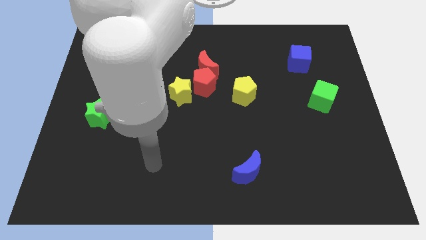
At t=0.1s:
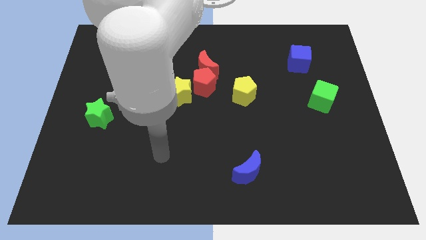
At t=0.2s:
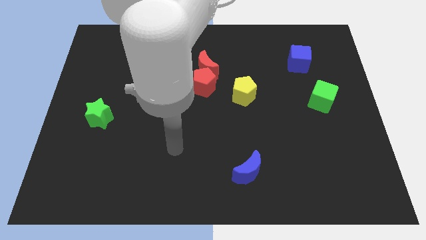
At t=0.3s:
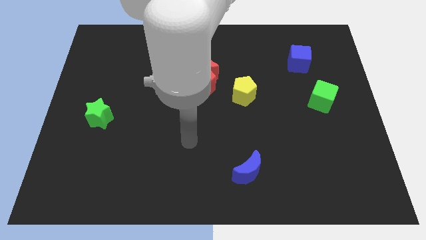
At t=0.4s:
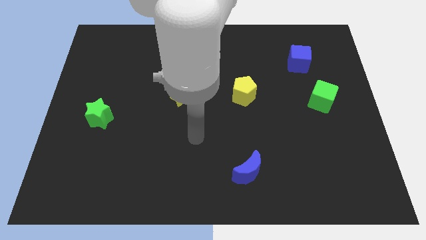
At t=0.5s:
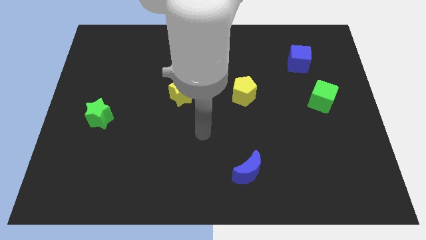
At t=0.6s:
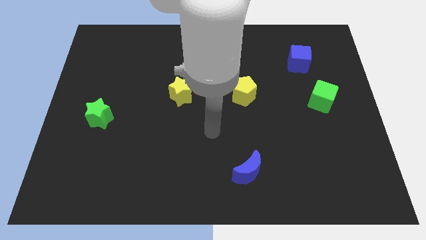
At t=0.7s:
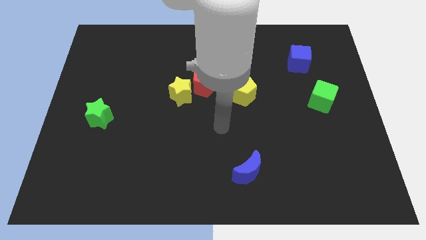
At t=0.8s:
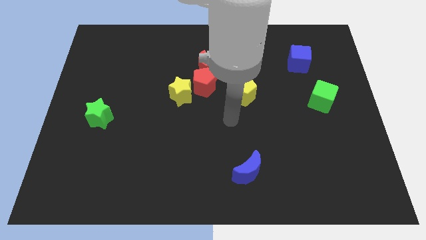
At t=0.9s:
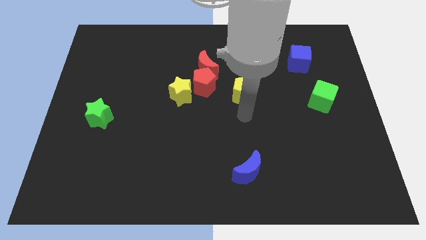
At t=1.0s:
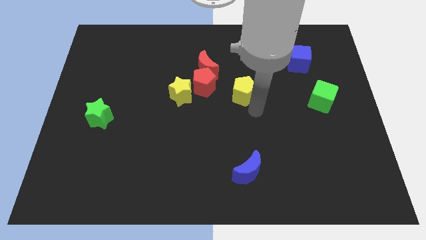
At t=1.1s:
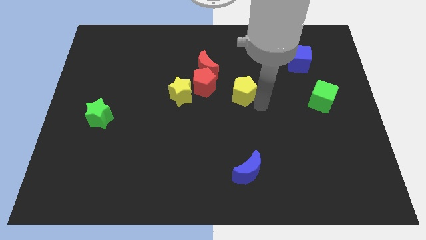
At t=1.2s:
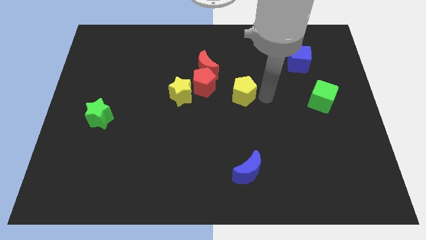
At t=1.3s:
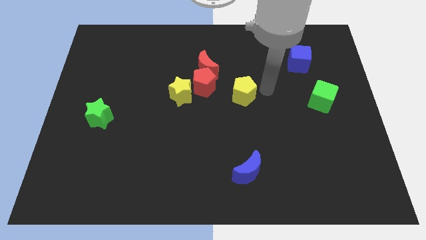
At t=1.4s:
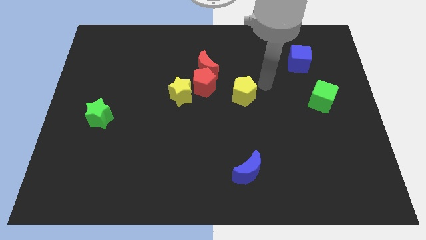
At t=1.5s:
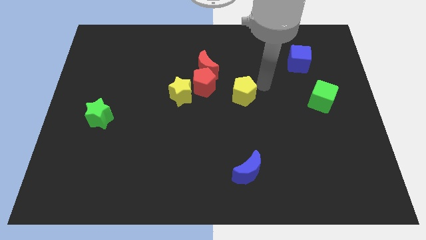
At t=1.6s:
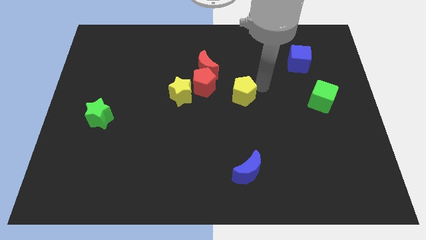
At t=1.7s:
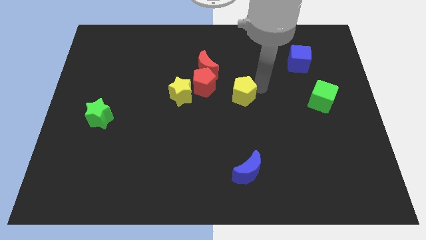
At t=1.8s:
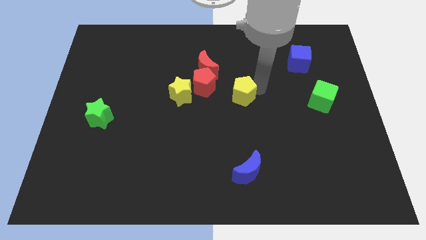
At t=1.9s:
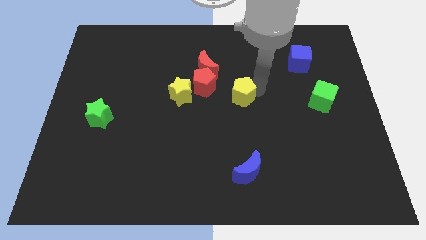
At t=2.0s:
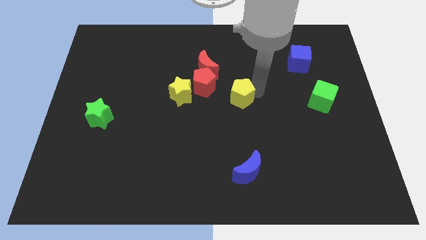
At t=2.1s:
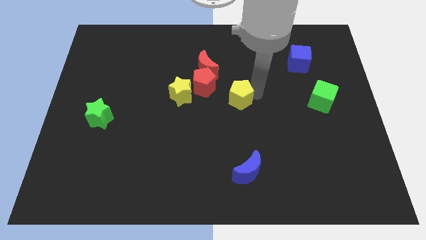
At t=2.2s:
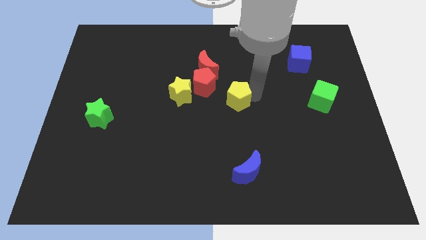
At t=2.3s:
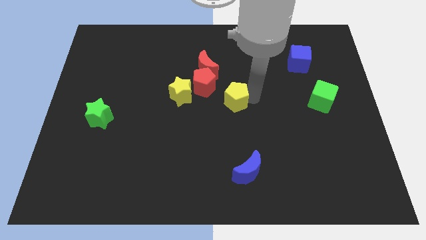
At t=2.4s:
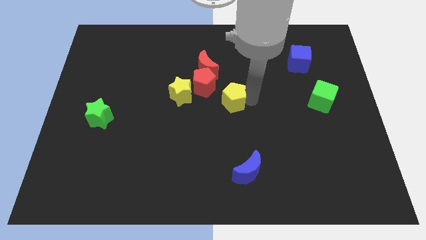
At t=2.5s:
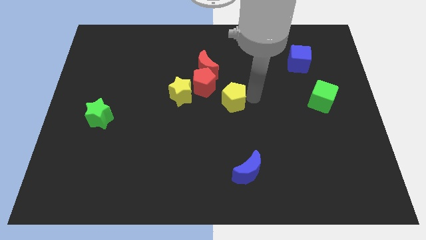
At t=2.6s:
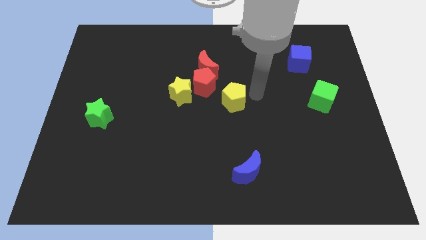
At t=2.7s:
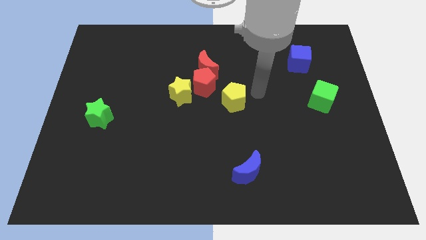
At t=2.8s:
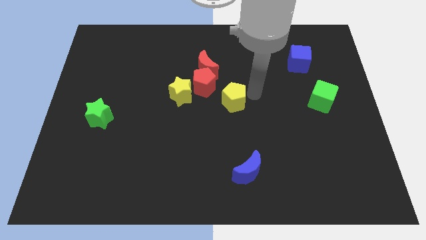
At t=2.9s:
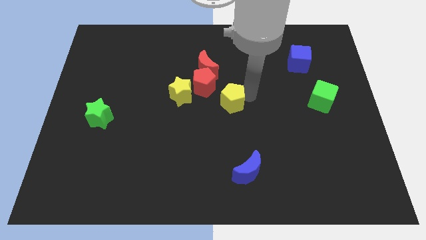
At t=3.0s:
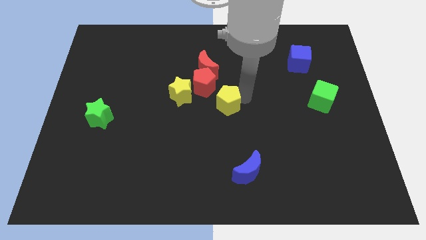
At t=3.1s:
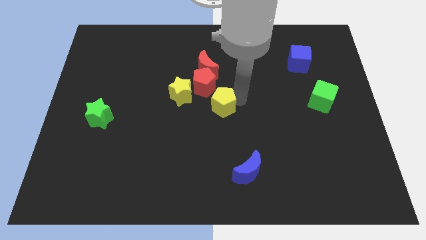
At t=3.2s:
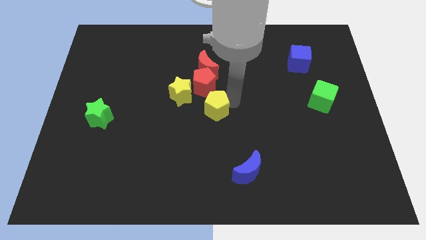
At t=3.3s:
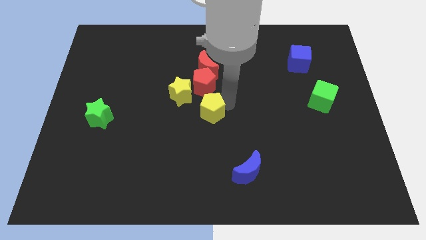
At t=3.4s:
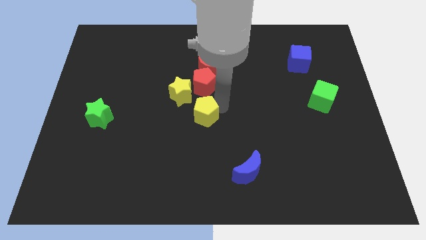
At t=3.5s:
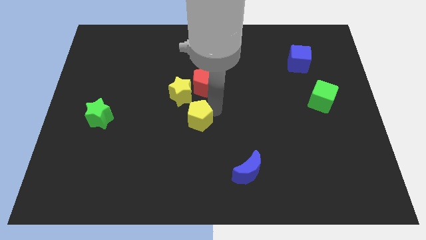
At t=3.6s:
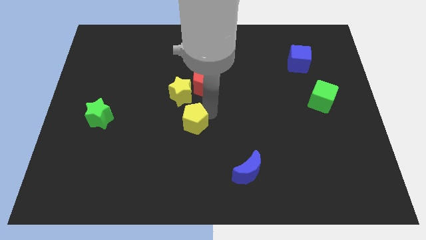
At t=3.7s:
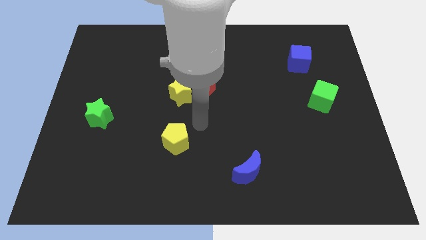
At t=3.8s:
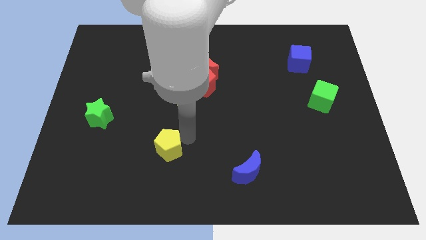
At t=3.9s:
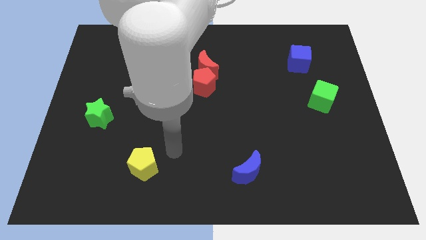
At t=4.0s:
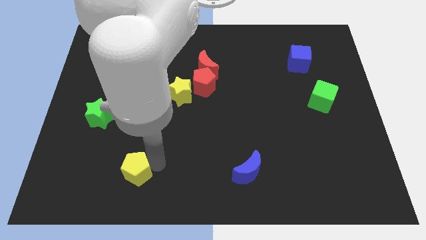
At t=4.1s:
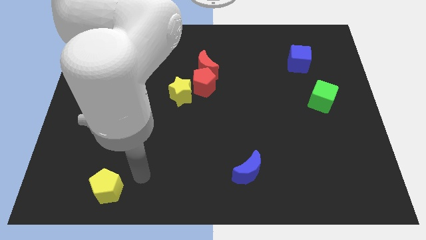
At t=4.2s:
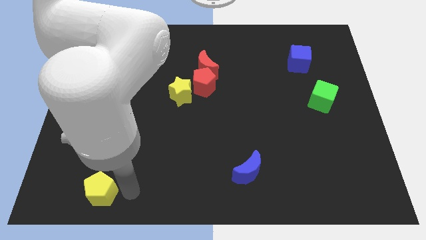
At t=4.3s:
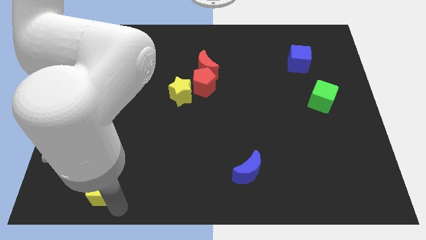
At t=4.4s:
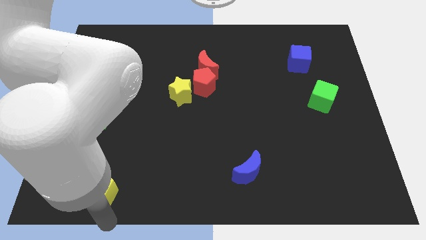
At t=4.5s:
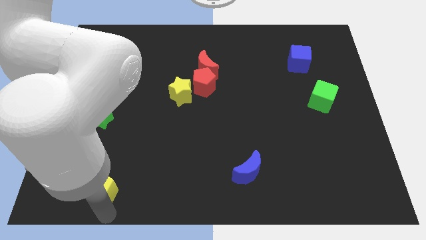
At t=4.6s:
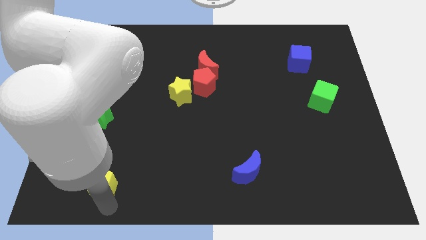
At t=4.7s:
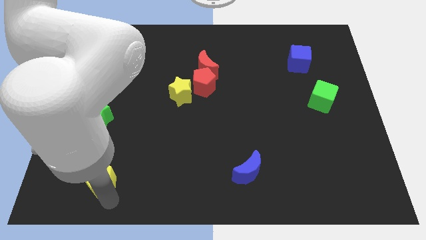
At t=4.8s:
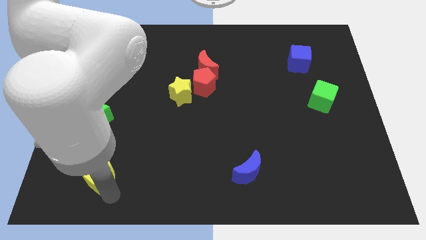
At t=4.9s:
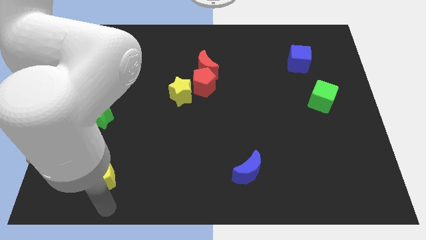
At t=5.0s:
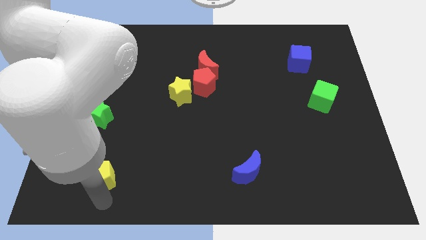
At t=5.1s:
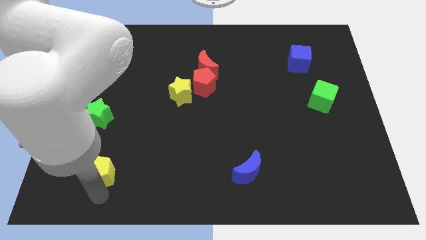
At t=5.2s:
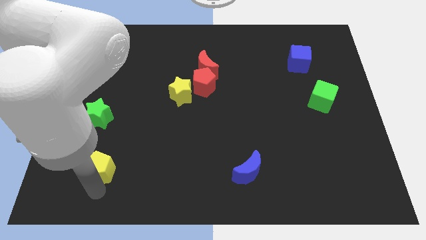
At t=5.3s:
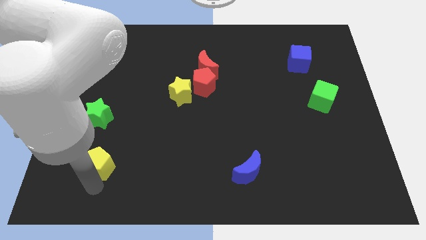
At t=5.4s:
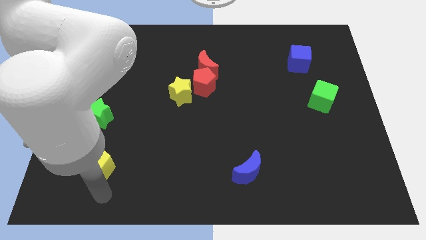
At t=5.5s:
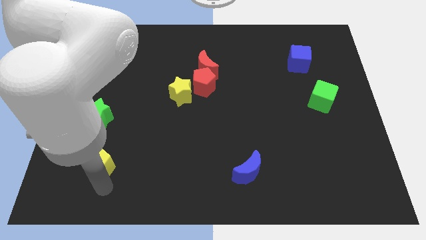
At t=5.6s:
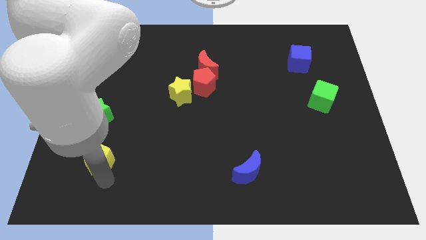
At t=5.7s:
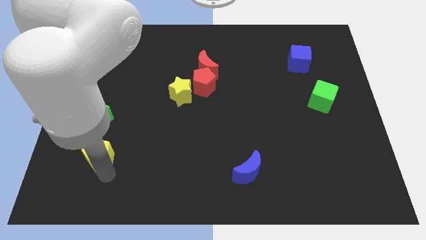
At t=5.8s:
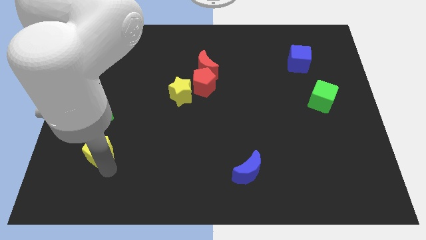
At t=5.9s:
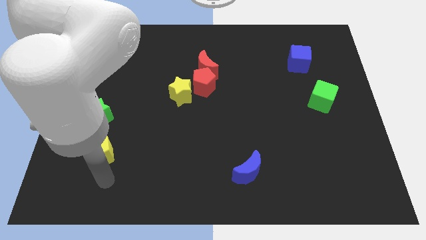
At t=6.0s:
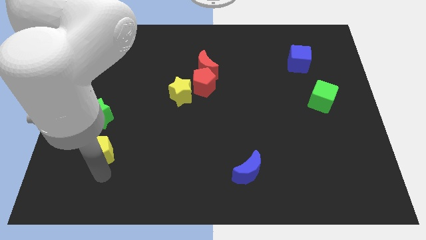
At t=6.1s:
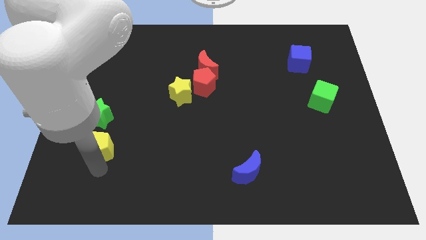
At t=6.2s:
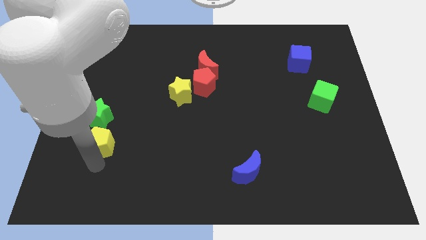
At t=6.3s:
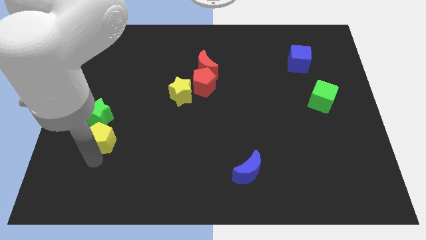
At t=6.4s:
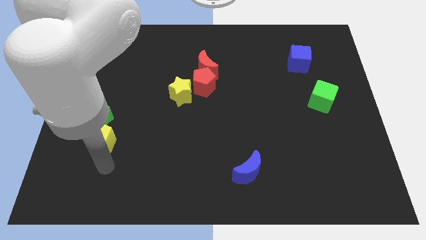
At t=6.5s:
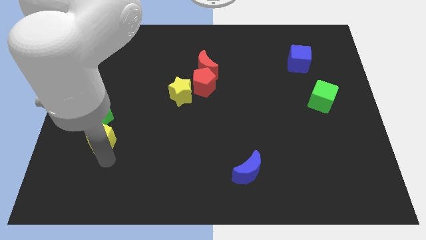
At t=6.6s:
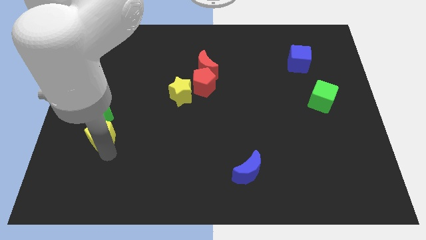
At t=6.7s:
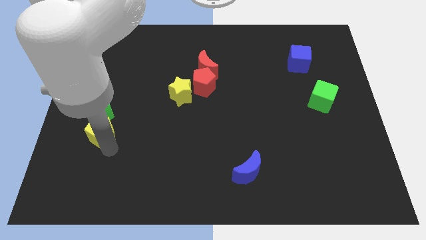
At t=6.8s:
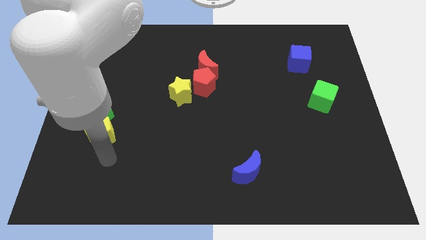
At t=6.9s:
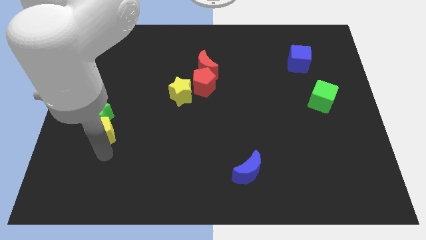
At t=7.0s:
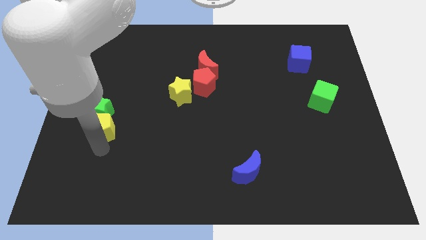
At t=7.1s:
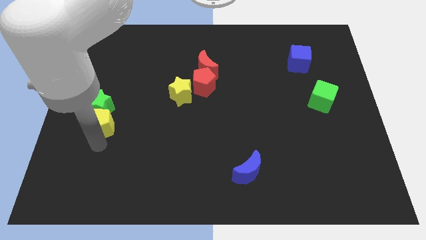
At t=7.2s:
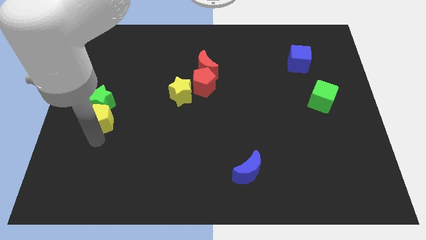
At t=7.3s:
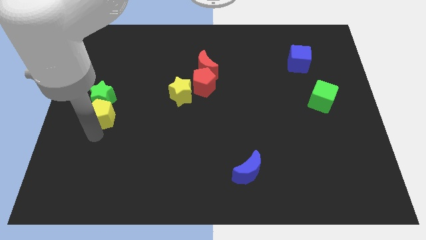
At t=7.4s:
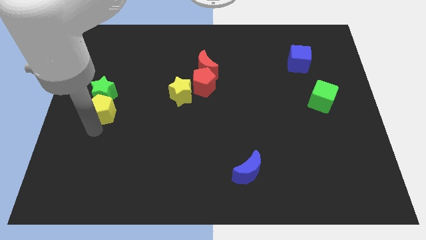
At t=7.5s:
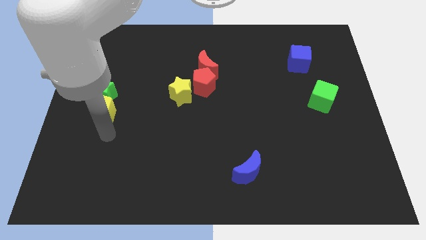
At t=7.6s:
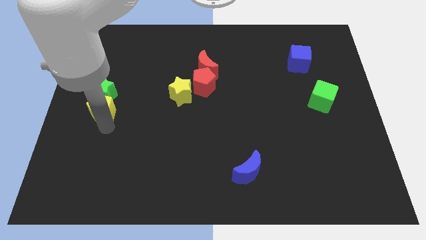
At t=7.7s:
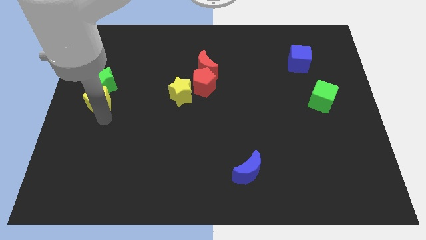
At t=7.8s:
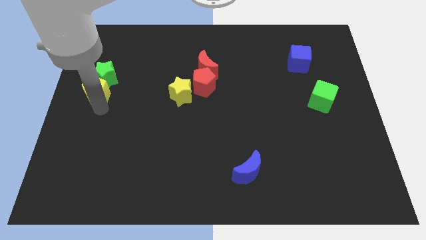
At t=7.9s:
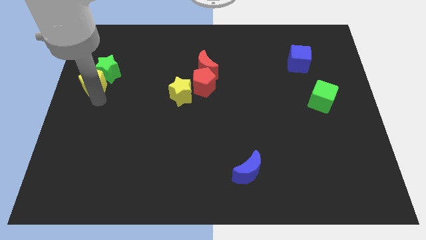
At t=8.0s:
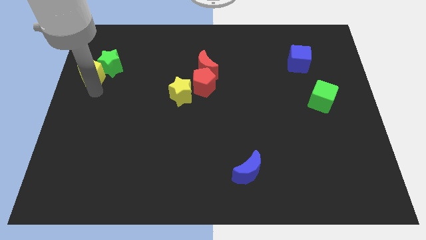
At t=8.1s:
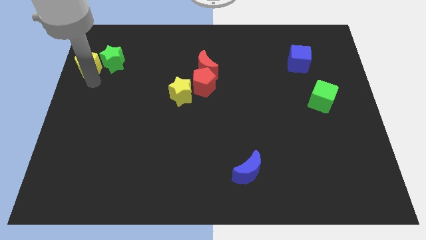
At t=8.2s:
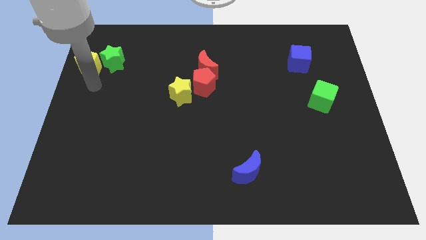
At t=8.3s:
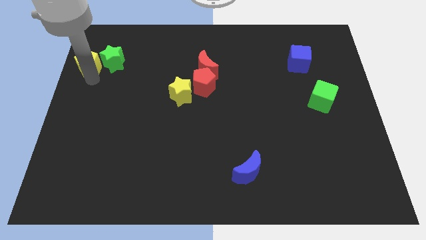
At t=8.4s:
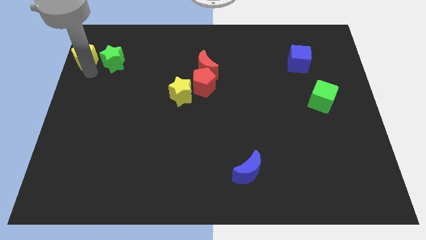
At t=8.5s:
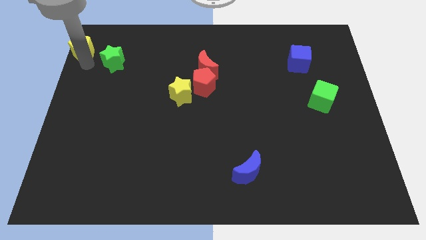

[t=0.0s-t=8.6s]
push the yellow pentagon to the top left corner
